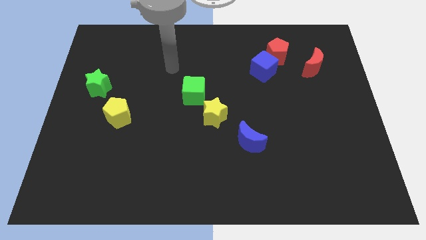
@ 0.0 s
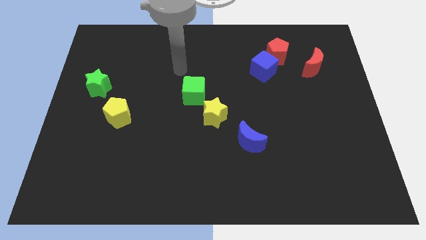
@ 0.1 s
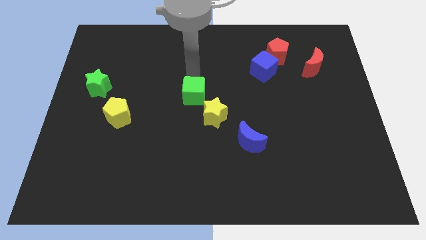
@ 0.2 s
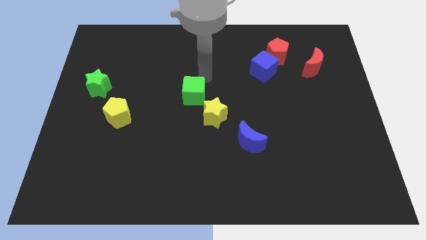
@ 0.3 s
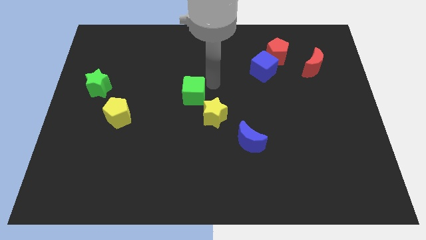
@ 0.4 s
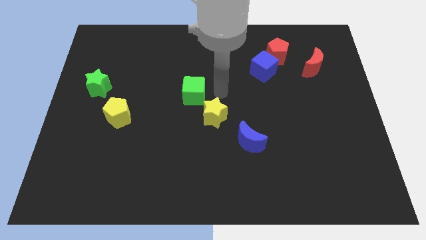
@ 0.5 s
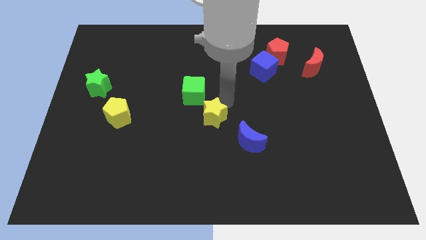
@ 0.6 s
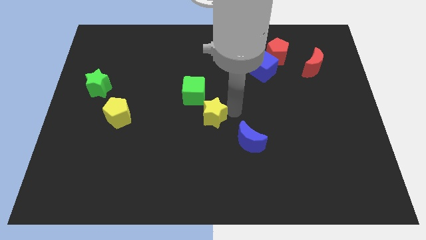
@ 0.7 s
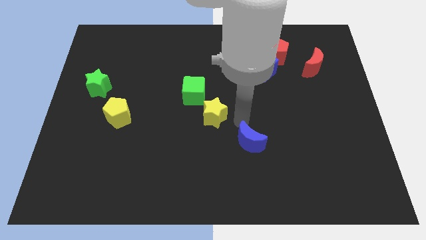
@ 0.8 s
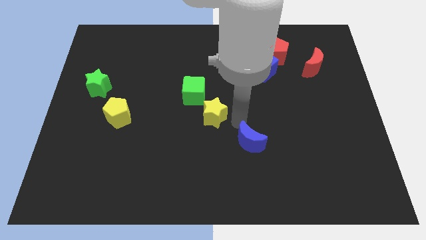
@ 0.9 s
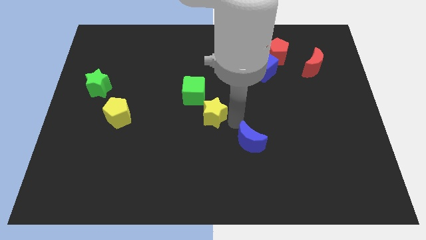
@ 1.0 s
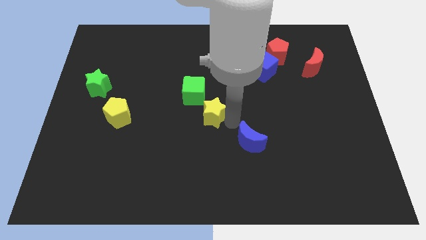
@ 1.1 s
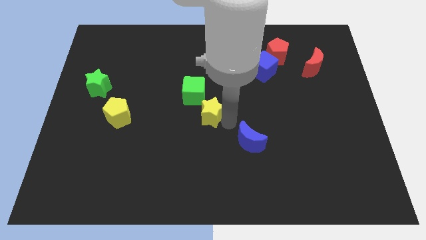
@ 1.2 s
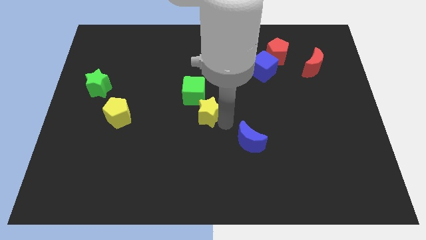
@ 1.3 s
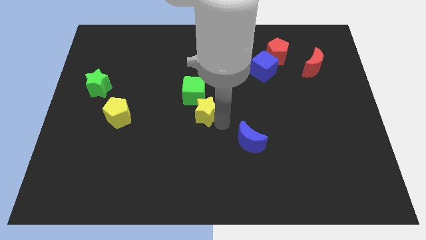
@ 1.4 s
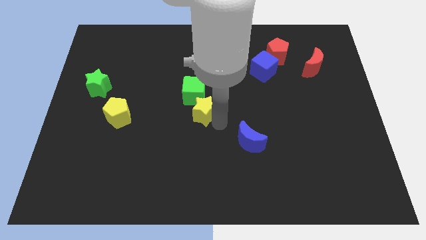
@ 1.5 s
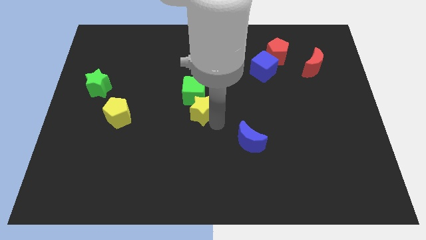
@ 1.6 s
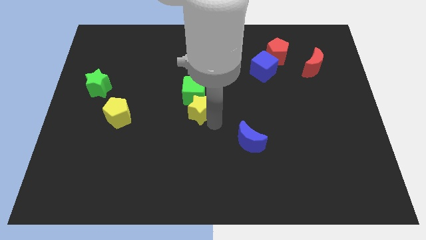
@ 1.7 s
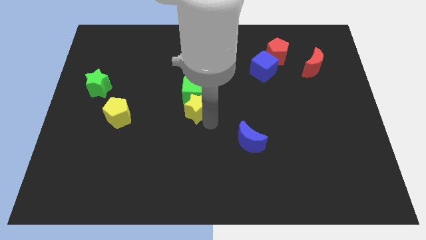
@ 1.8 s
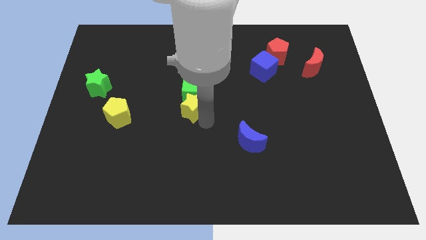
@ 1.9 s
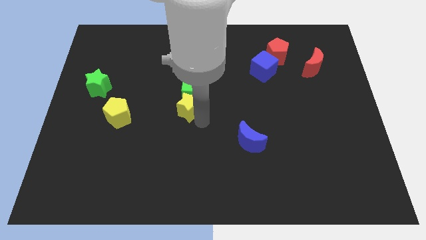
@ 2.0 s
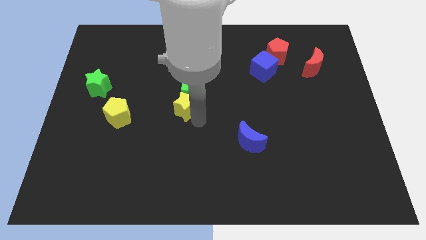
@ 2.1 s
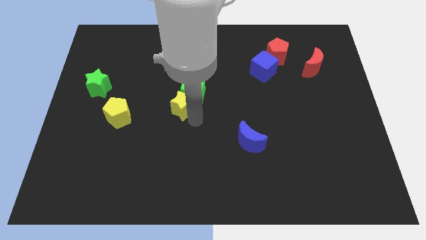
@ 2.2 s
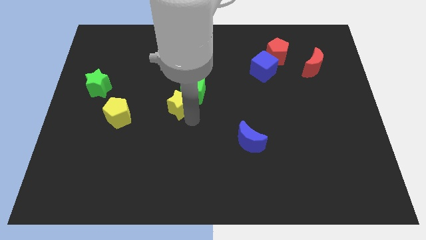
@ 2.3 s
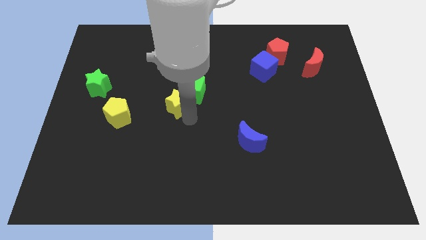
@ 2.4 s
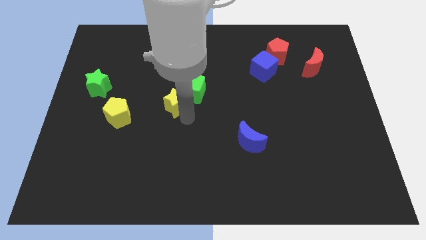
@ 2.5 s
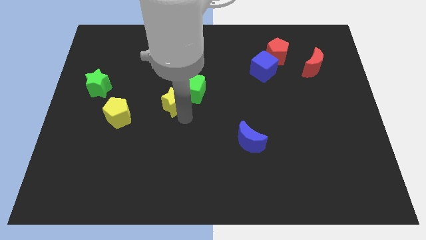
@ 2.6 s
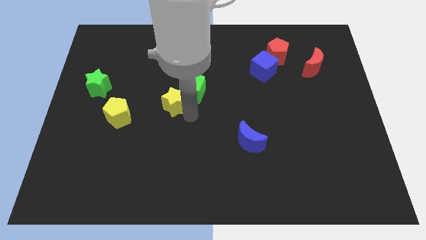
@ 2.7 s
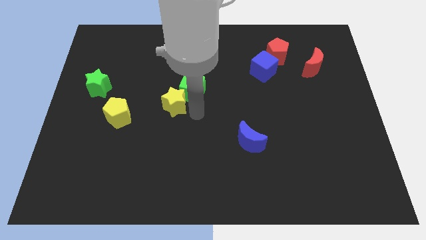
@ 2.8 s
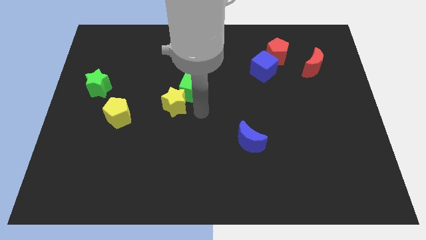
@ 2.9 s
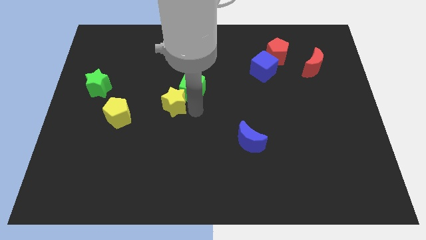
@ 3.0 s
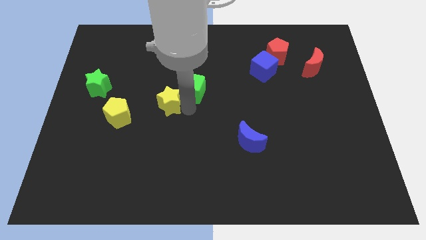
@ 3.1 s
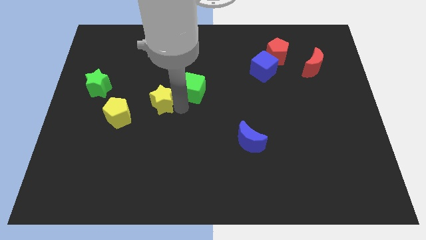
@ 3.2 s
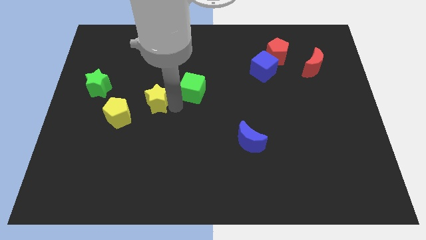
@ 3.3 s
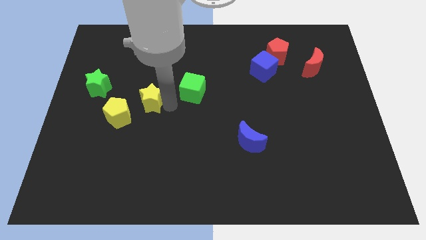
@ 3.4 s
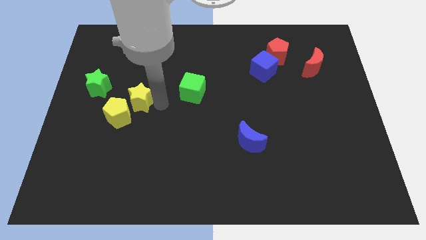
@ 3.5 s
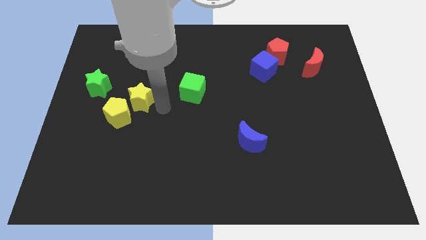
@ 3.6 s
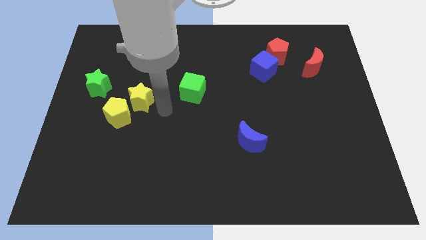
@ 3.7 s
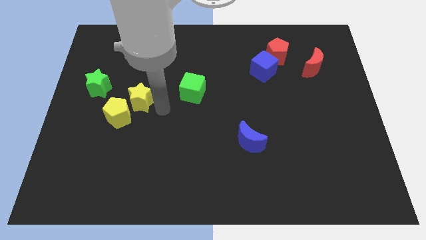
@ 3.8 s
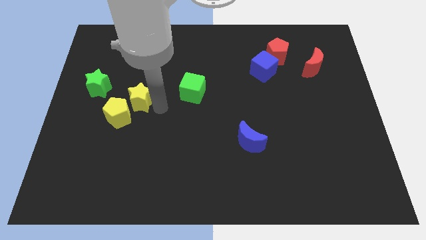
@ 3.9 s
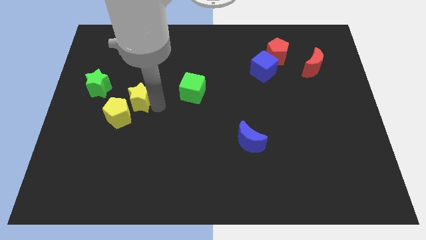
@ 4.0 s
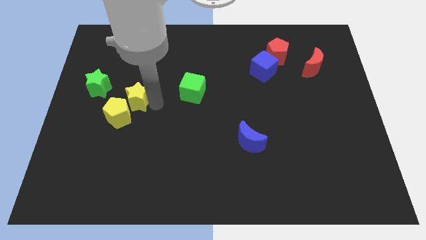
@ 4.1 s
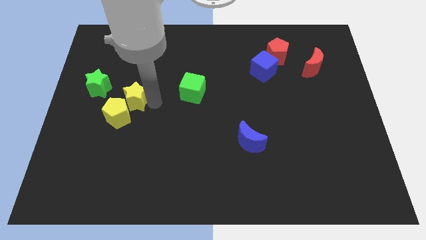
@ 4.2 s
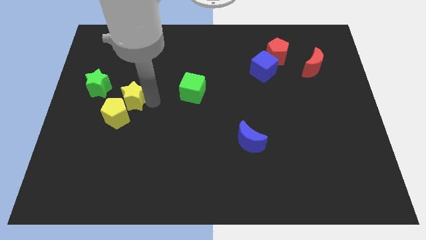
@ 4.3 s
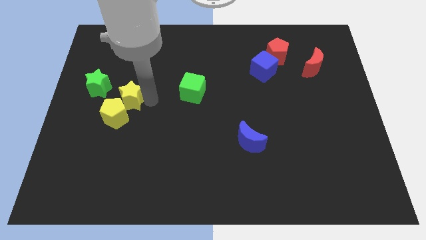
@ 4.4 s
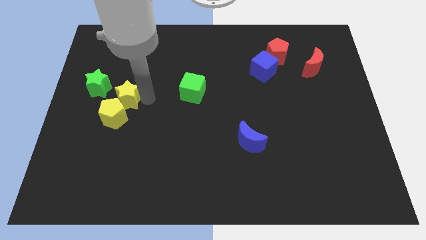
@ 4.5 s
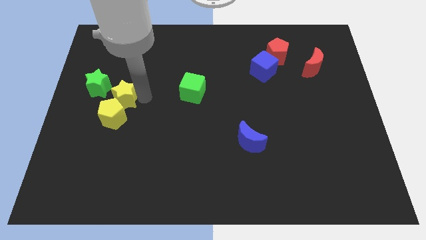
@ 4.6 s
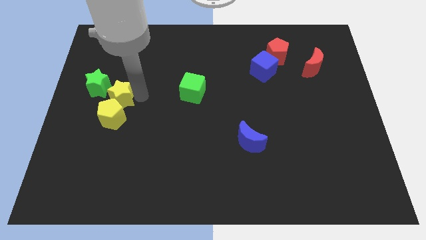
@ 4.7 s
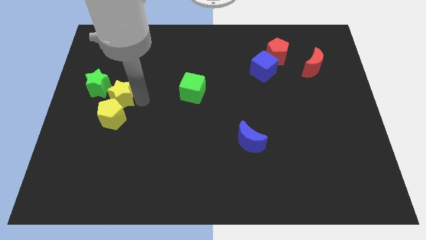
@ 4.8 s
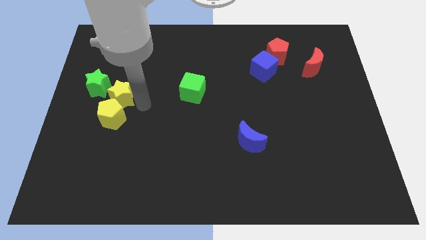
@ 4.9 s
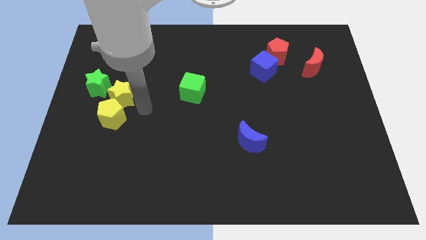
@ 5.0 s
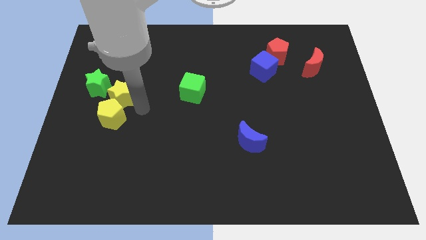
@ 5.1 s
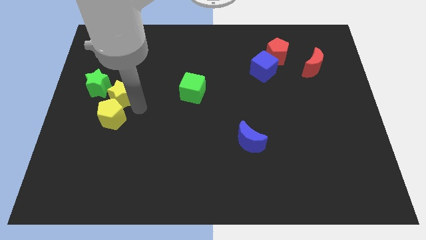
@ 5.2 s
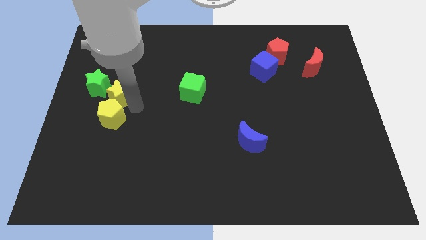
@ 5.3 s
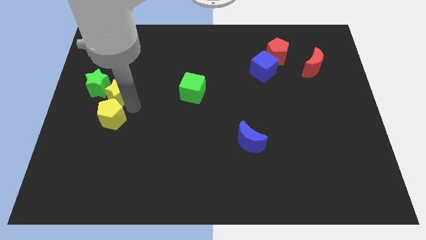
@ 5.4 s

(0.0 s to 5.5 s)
push the yellow star next to the green star

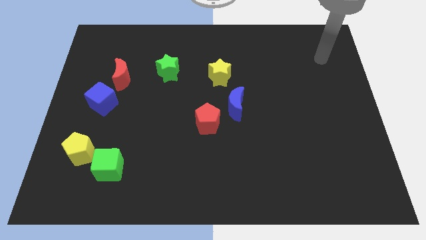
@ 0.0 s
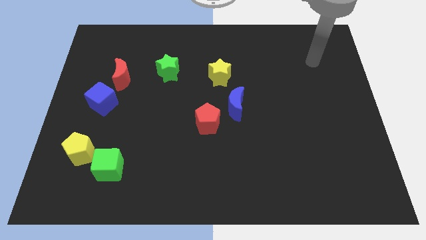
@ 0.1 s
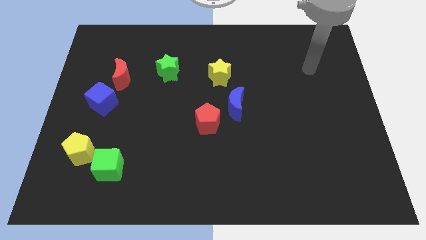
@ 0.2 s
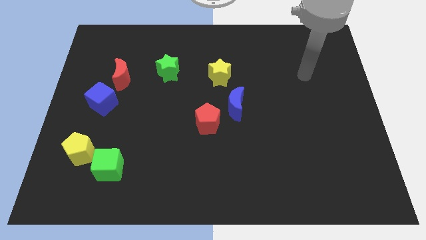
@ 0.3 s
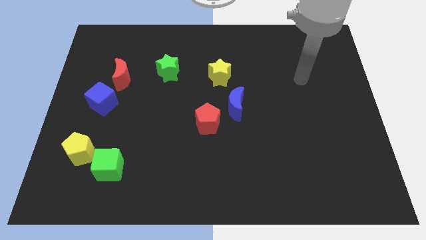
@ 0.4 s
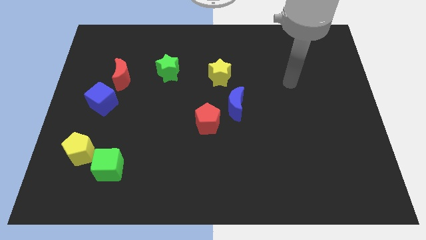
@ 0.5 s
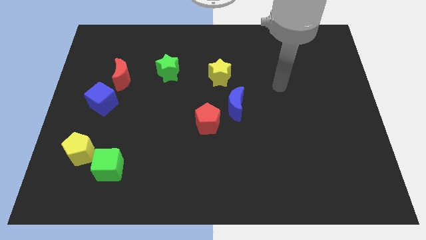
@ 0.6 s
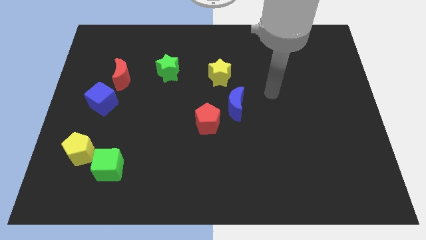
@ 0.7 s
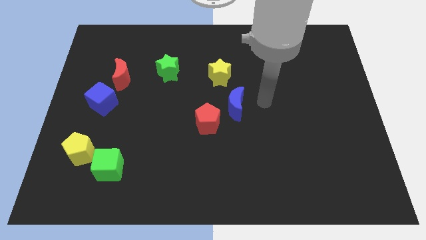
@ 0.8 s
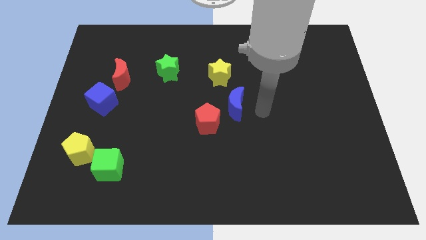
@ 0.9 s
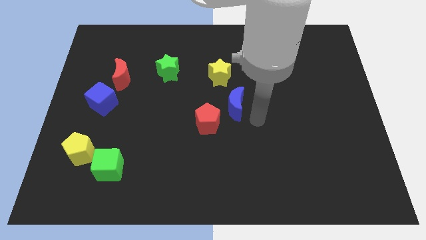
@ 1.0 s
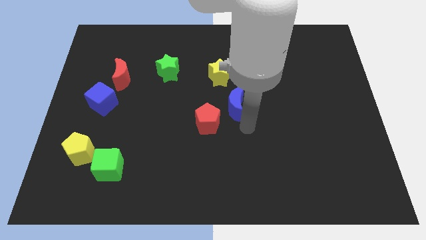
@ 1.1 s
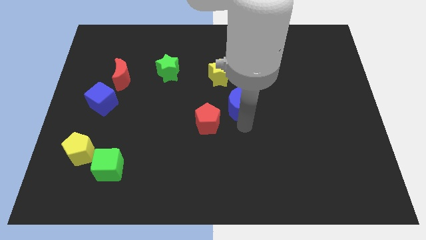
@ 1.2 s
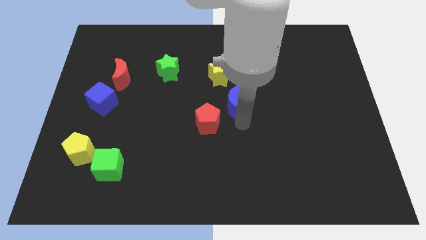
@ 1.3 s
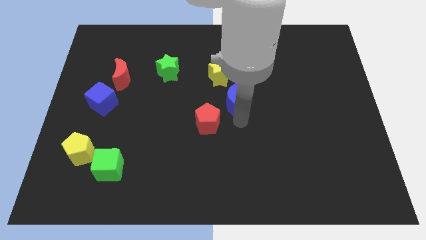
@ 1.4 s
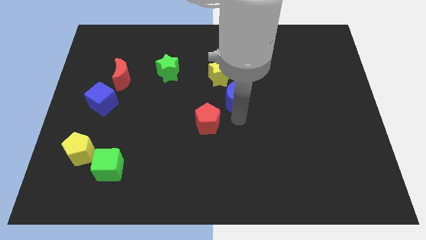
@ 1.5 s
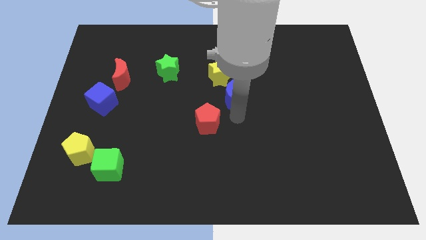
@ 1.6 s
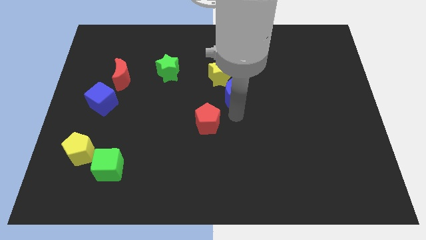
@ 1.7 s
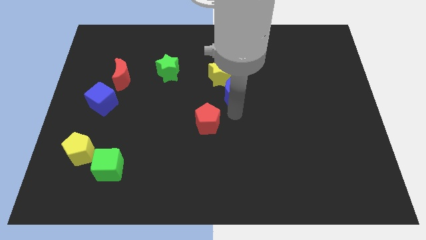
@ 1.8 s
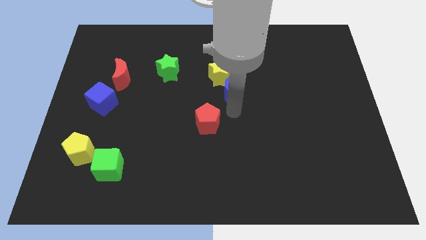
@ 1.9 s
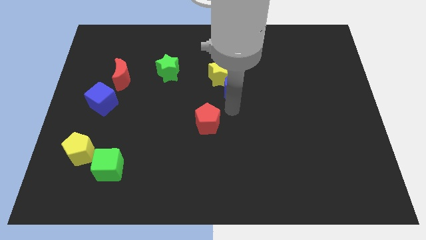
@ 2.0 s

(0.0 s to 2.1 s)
put the blue moon close to the yellow star
